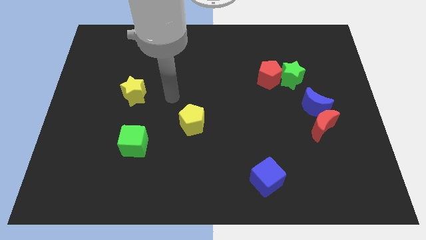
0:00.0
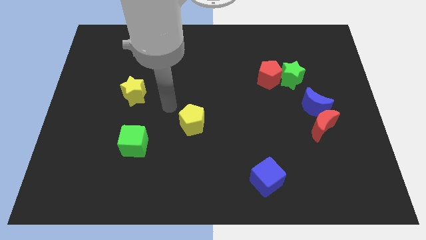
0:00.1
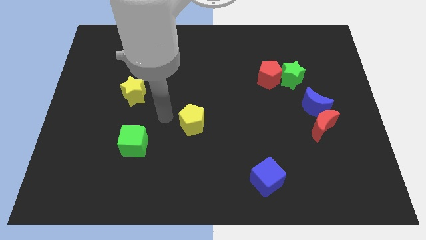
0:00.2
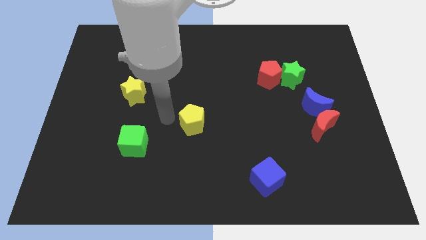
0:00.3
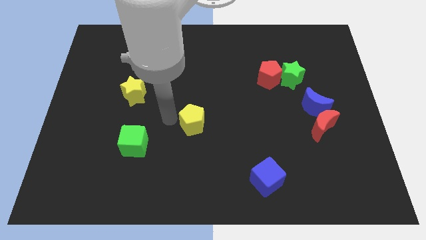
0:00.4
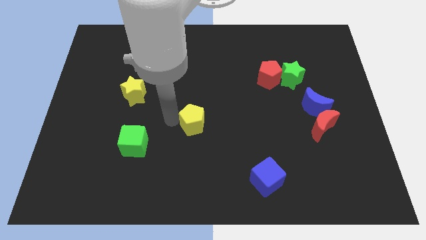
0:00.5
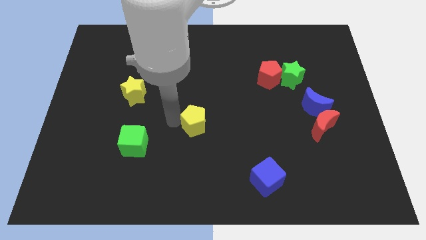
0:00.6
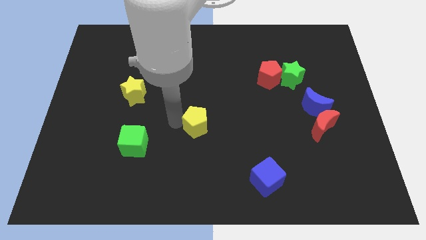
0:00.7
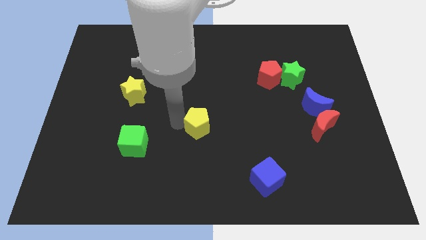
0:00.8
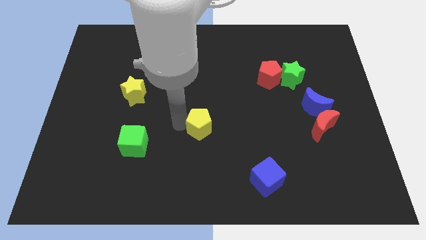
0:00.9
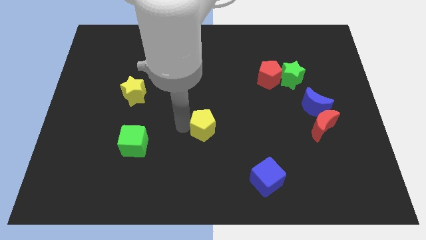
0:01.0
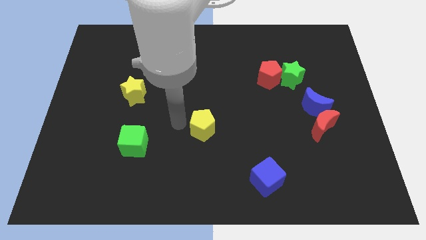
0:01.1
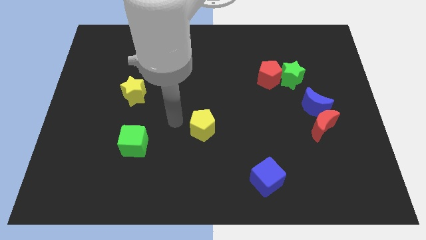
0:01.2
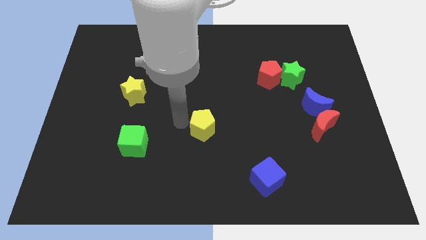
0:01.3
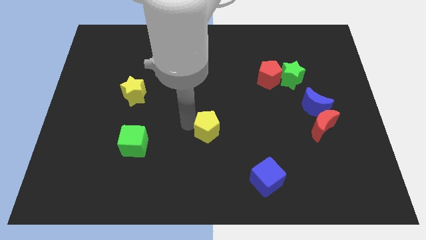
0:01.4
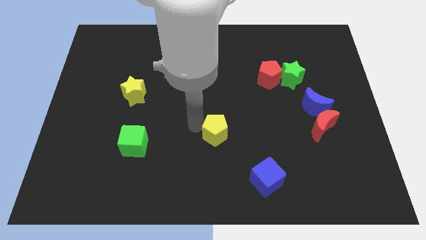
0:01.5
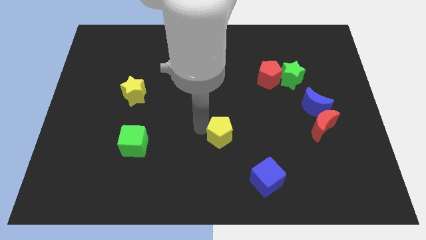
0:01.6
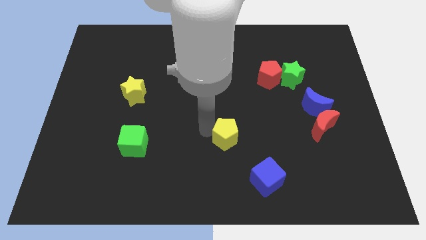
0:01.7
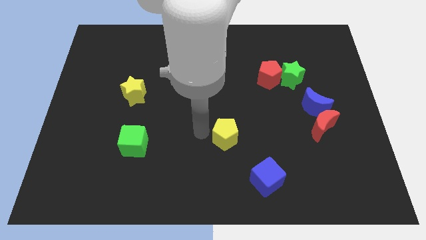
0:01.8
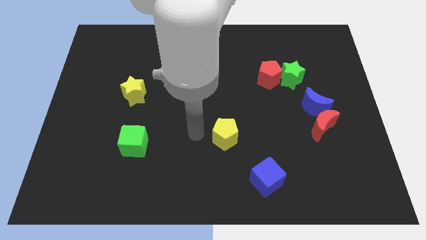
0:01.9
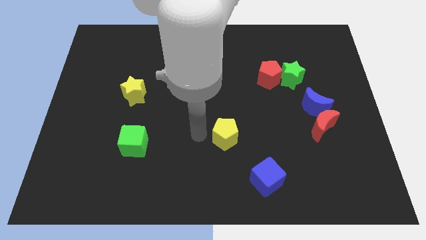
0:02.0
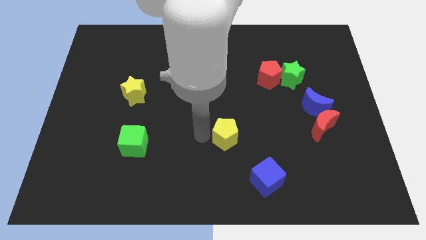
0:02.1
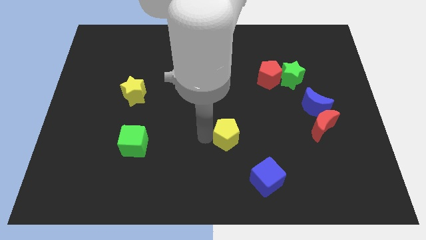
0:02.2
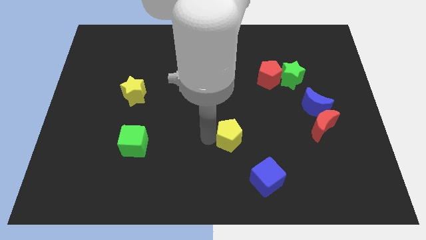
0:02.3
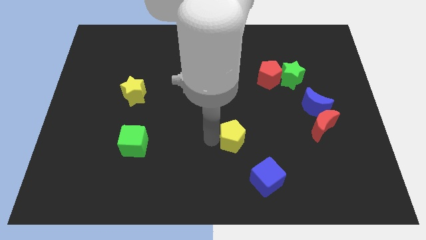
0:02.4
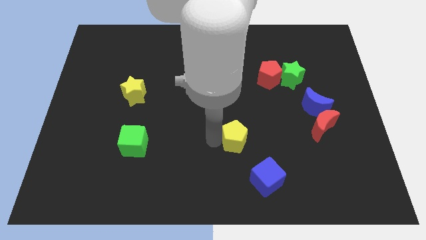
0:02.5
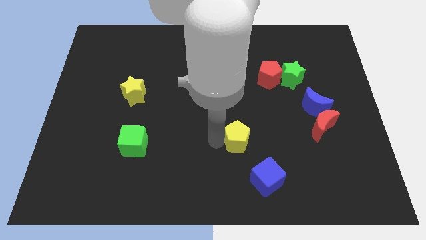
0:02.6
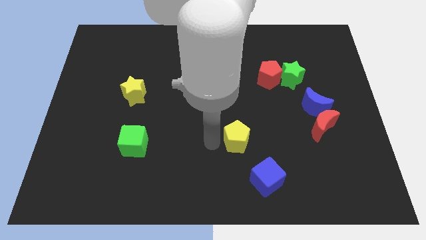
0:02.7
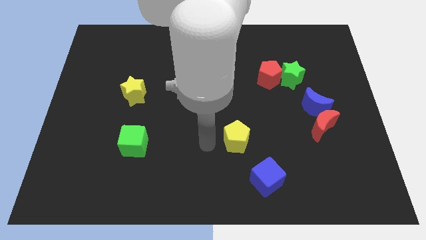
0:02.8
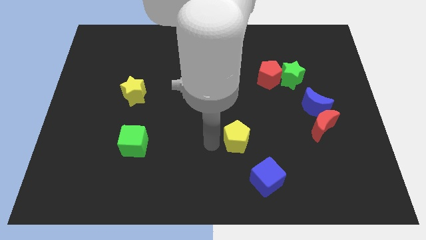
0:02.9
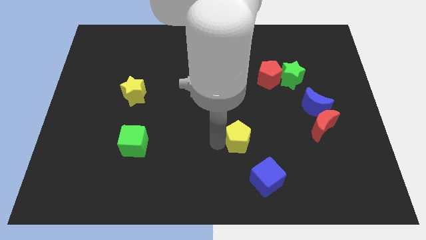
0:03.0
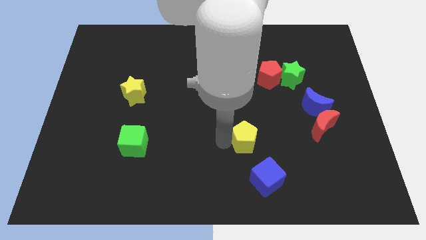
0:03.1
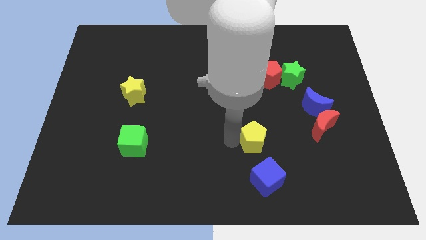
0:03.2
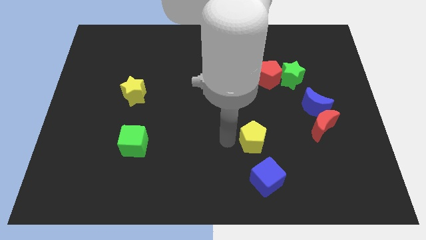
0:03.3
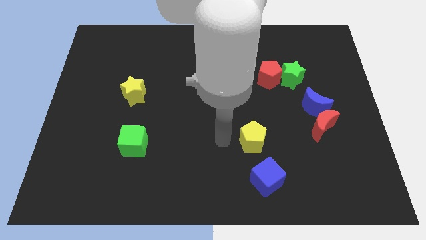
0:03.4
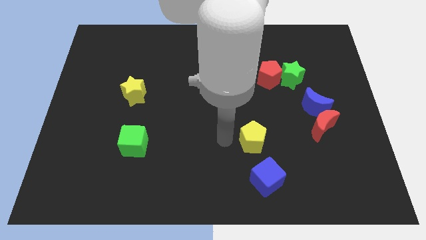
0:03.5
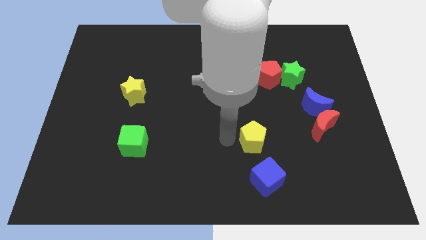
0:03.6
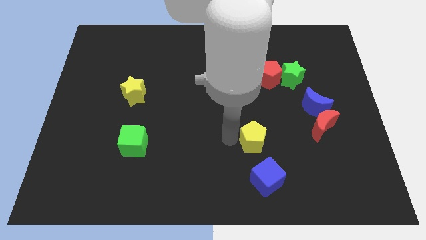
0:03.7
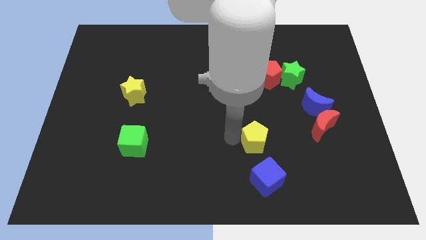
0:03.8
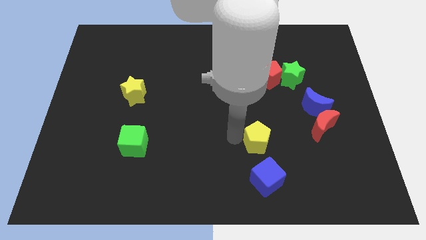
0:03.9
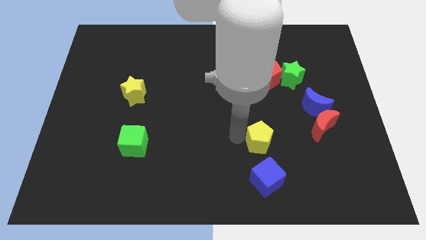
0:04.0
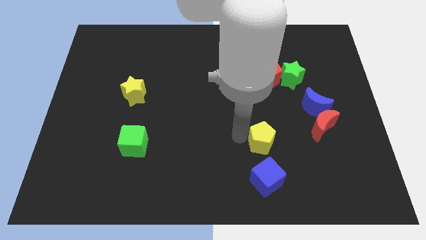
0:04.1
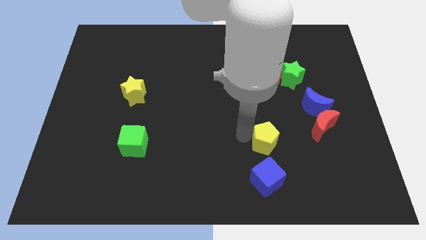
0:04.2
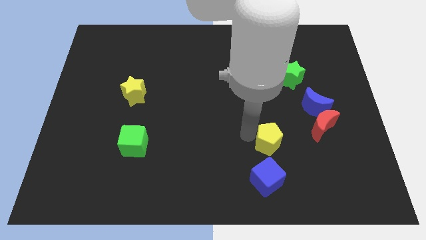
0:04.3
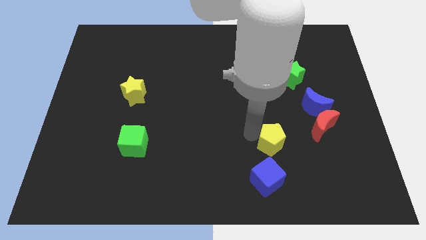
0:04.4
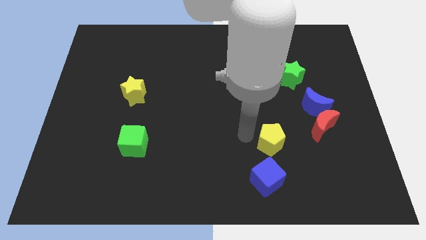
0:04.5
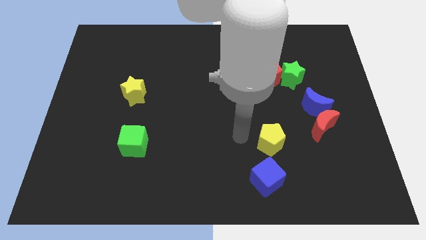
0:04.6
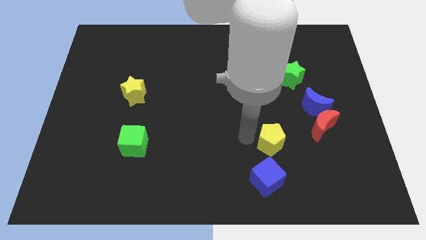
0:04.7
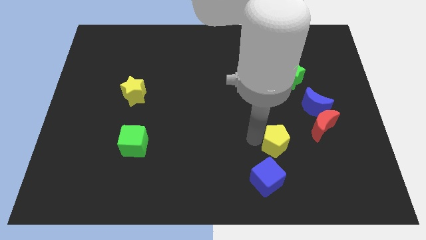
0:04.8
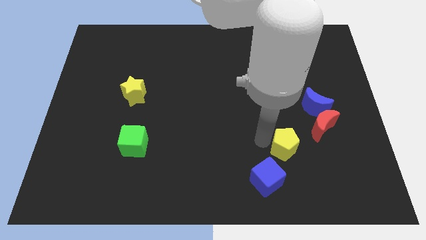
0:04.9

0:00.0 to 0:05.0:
put the yellow pentagon diagonally down and to the left of the red moon

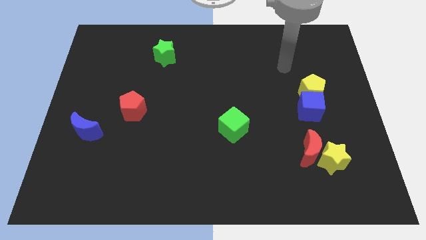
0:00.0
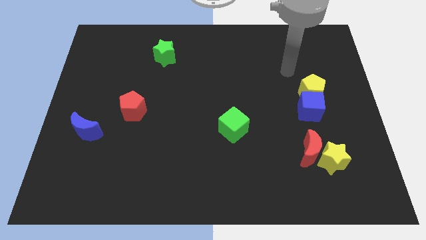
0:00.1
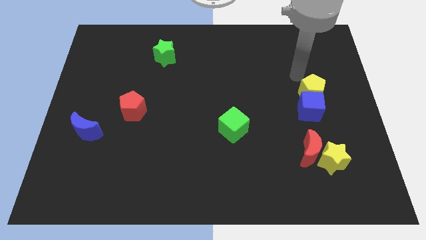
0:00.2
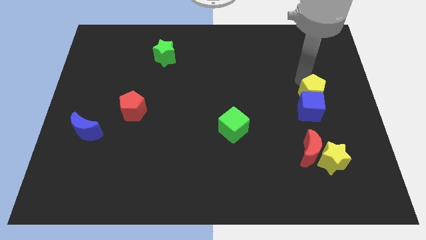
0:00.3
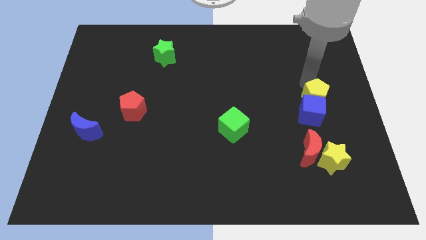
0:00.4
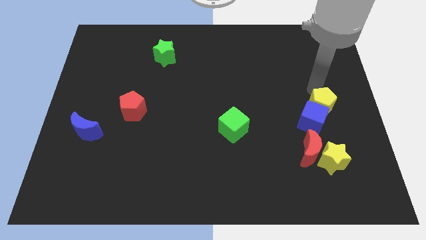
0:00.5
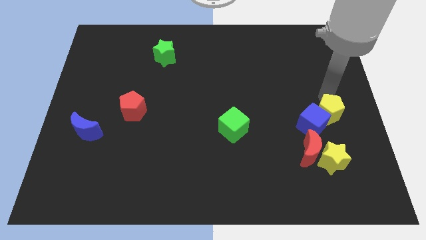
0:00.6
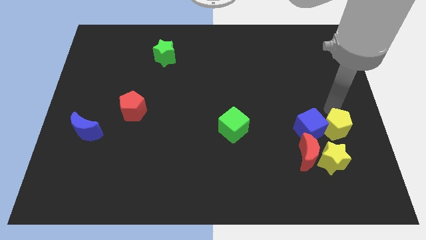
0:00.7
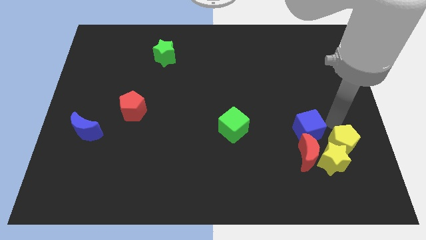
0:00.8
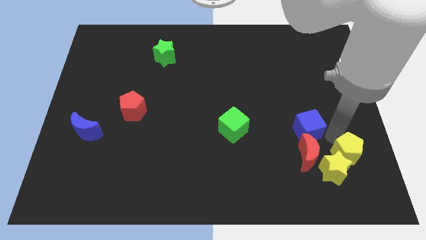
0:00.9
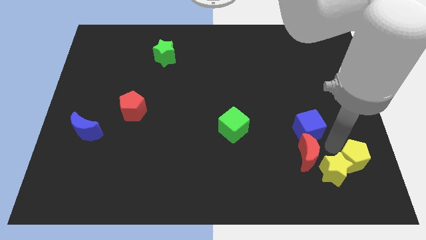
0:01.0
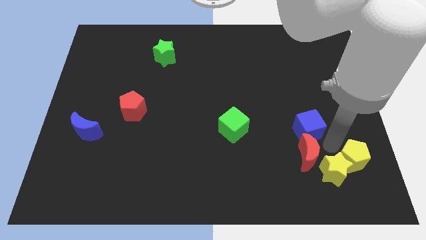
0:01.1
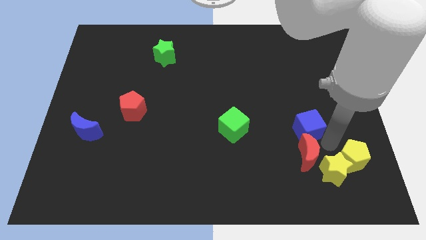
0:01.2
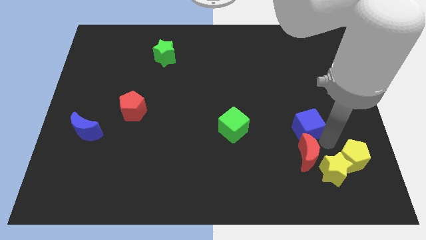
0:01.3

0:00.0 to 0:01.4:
slide the blue cube just right of the green cube

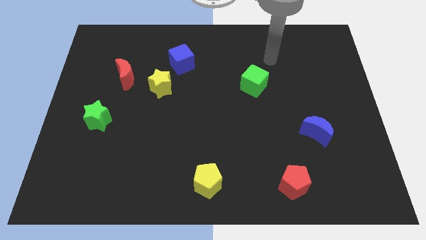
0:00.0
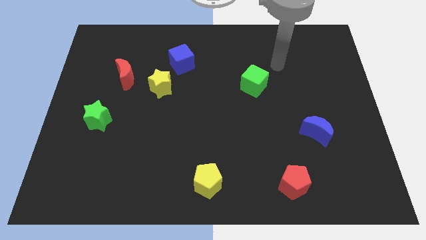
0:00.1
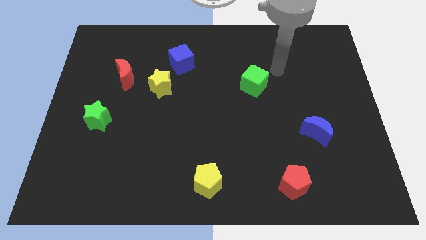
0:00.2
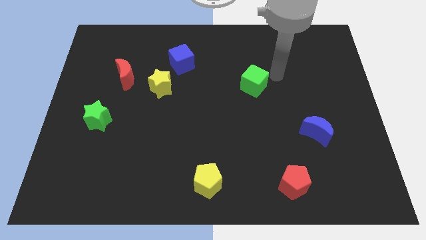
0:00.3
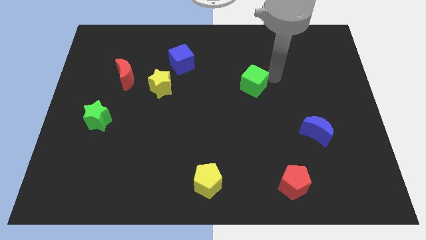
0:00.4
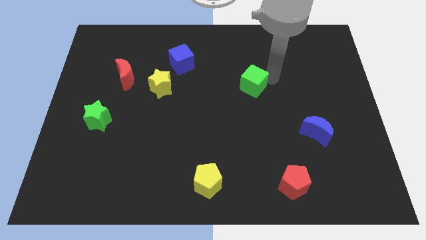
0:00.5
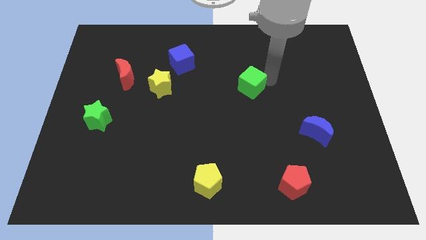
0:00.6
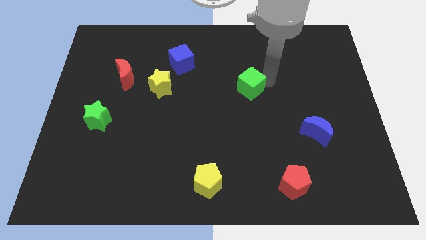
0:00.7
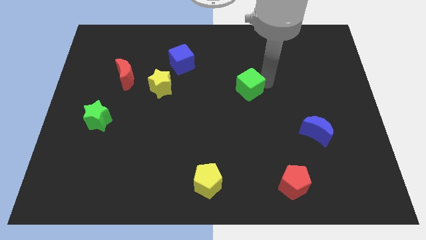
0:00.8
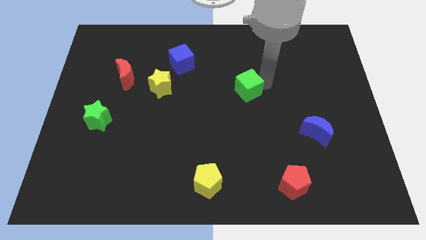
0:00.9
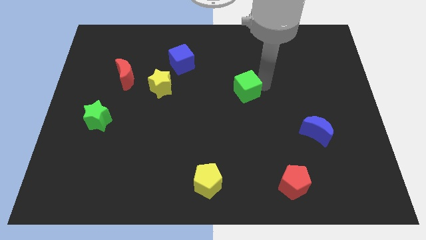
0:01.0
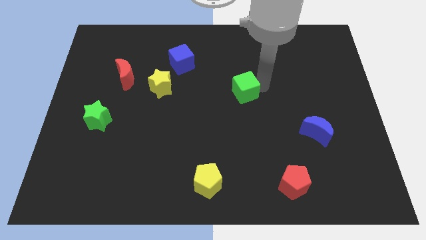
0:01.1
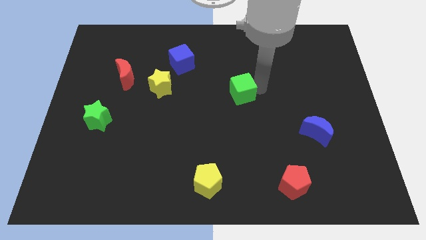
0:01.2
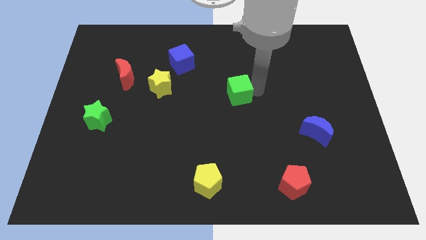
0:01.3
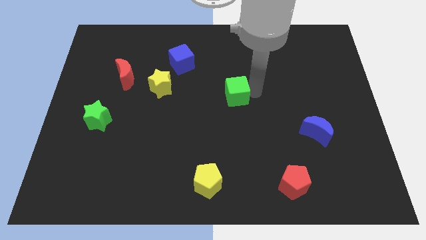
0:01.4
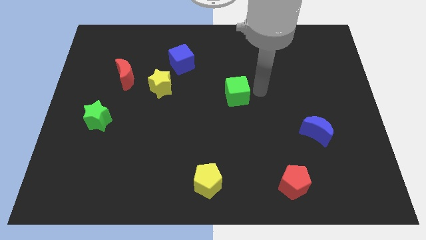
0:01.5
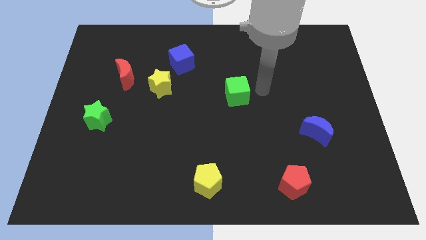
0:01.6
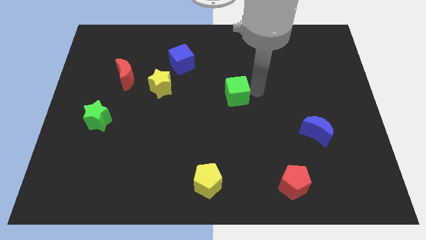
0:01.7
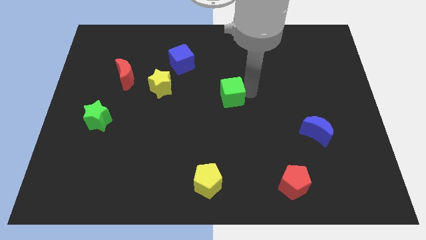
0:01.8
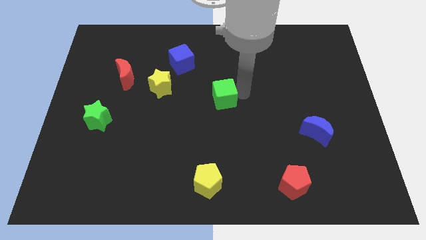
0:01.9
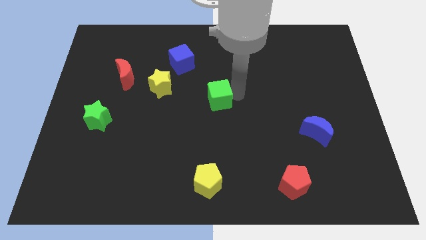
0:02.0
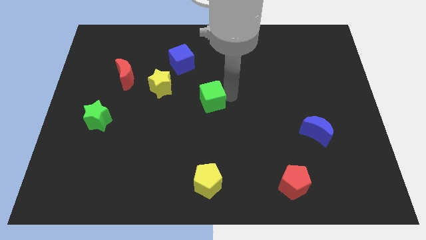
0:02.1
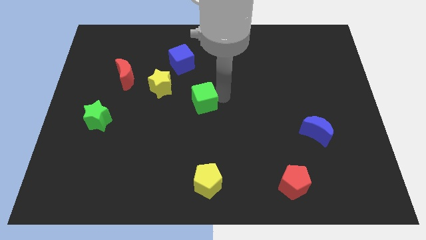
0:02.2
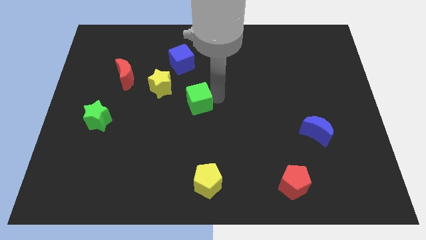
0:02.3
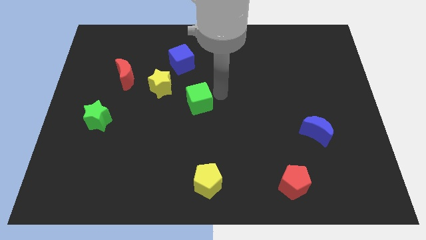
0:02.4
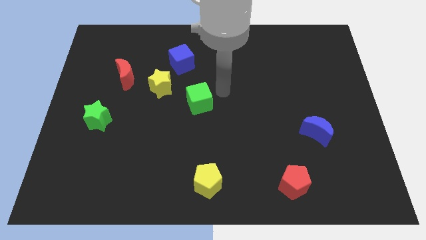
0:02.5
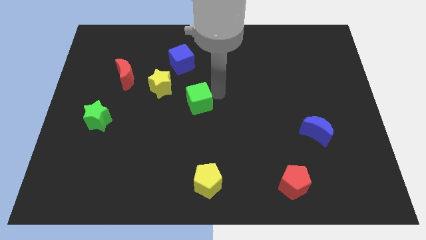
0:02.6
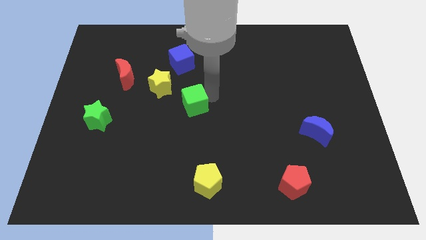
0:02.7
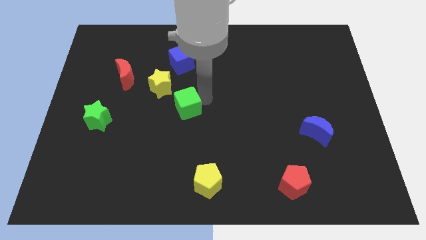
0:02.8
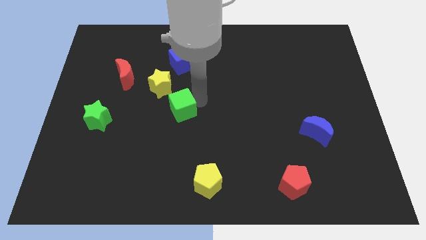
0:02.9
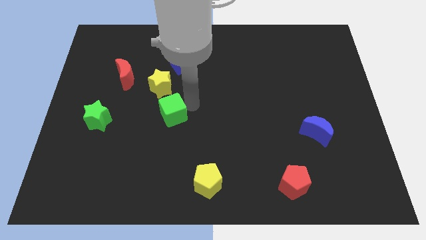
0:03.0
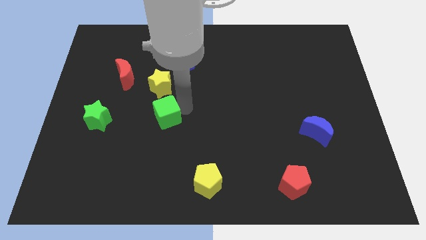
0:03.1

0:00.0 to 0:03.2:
move the green cube to the right of the green star
